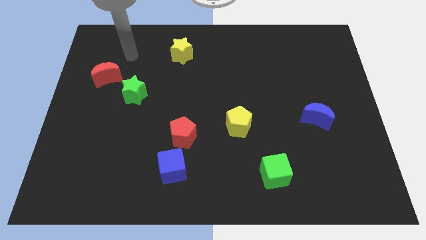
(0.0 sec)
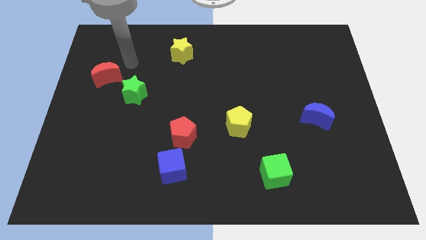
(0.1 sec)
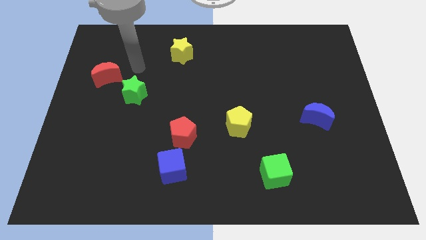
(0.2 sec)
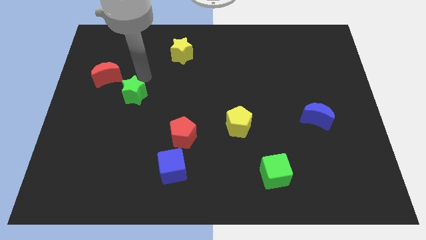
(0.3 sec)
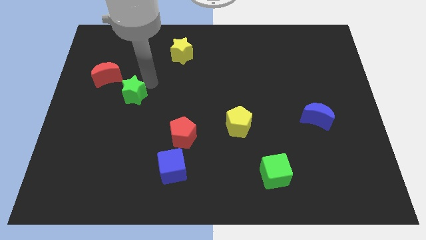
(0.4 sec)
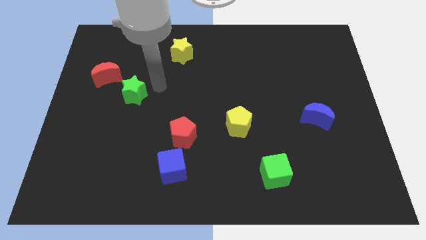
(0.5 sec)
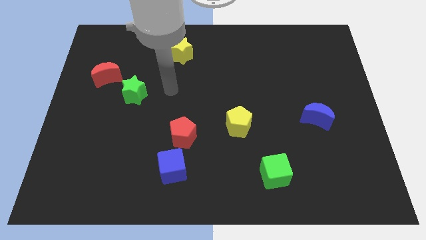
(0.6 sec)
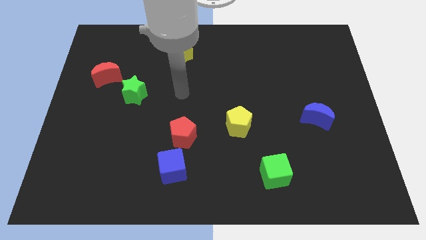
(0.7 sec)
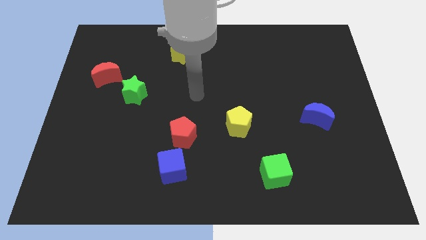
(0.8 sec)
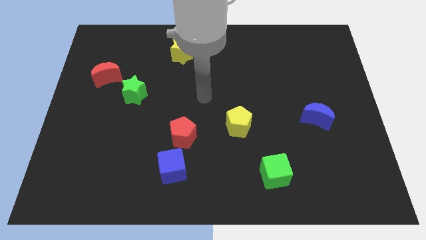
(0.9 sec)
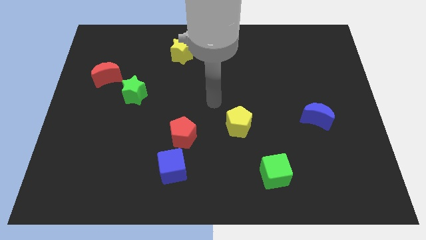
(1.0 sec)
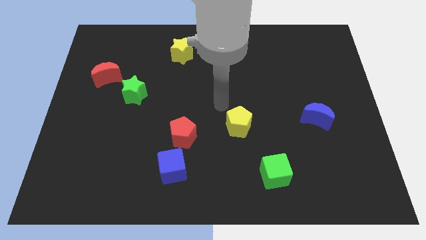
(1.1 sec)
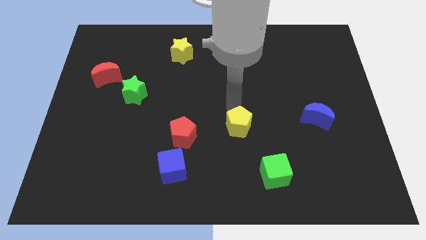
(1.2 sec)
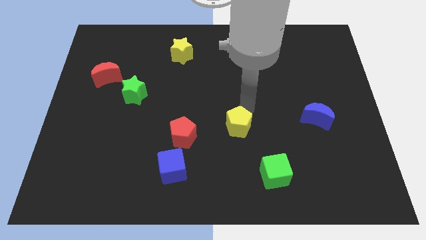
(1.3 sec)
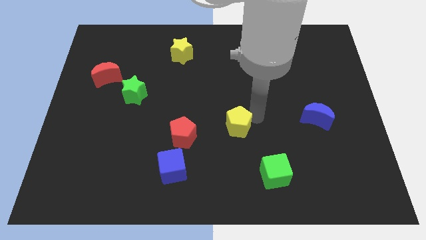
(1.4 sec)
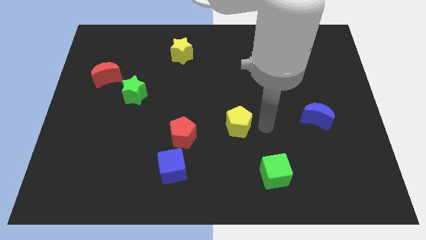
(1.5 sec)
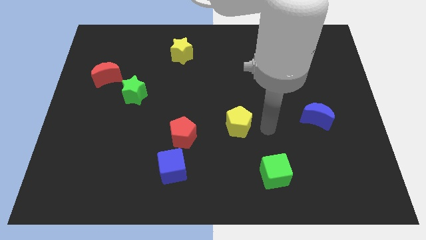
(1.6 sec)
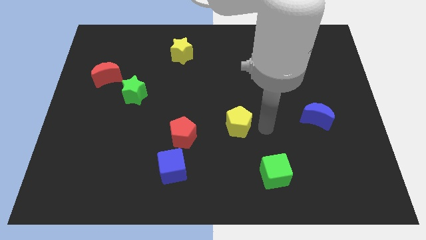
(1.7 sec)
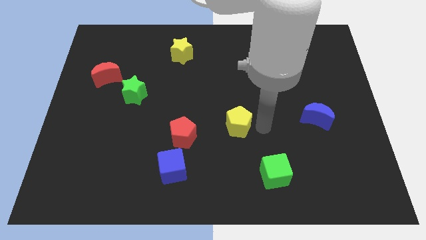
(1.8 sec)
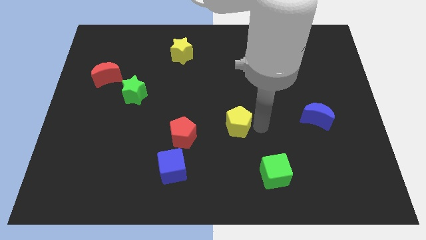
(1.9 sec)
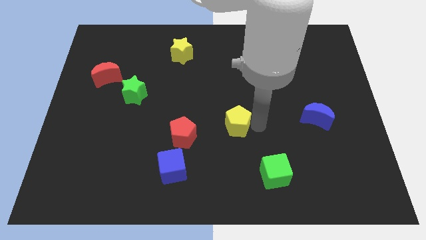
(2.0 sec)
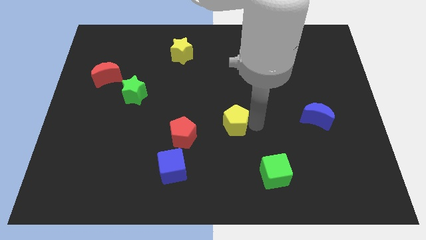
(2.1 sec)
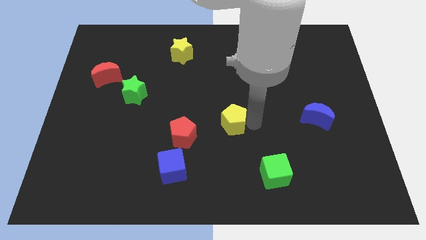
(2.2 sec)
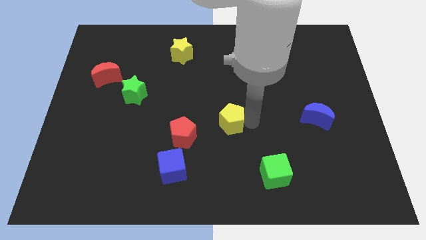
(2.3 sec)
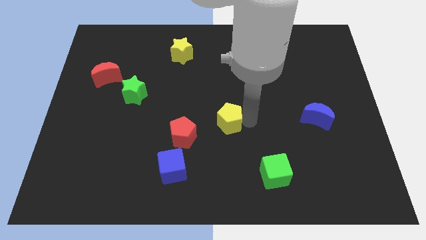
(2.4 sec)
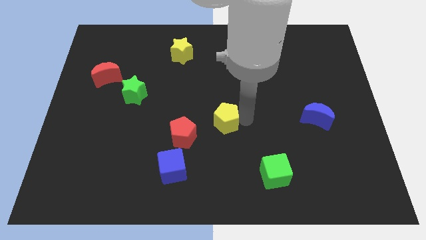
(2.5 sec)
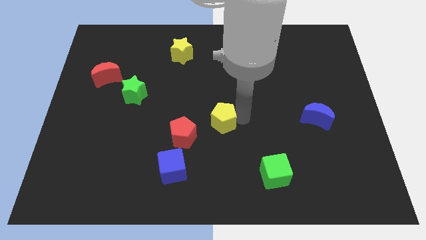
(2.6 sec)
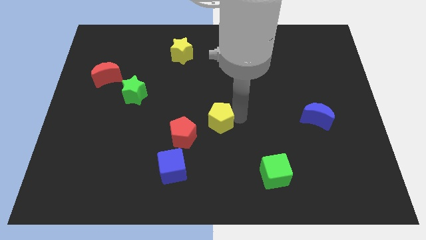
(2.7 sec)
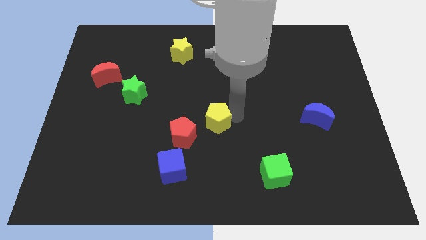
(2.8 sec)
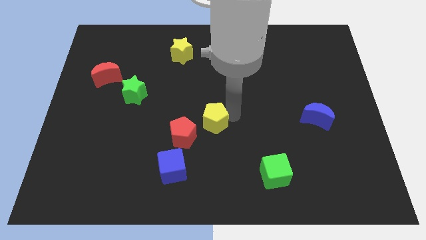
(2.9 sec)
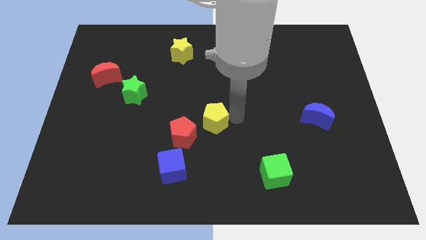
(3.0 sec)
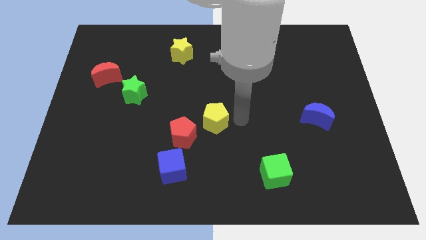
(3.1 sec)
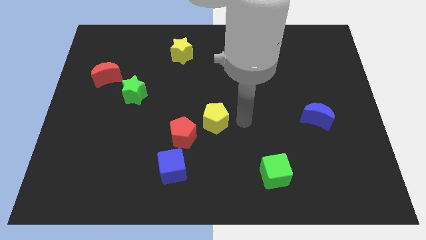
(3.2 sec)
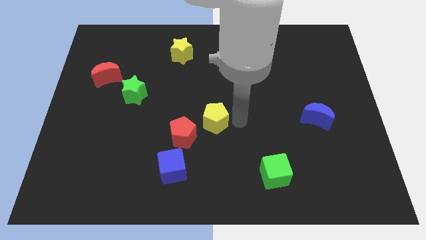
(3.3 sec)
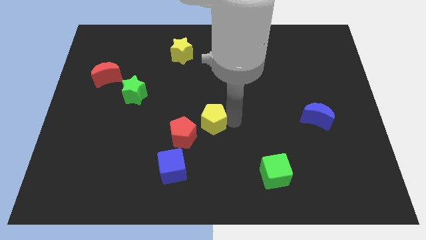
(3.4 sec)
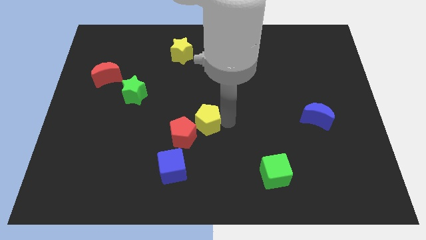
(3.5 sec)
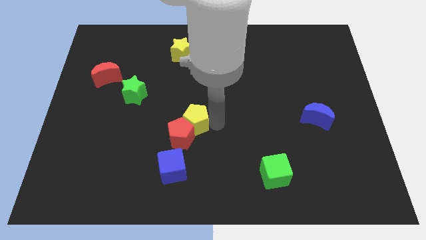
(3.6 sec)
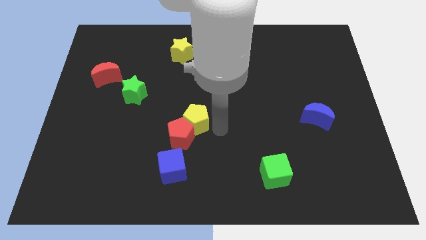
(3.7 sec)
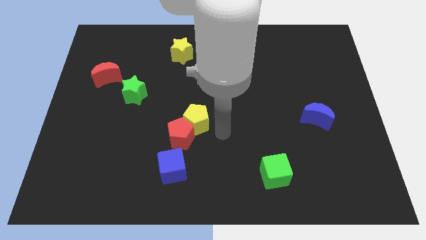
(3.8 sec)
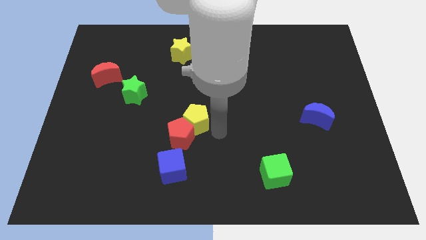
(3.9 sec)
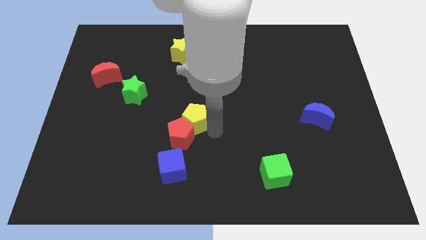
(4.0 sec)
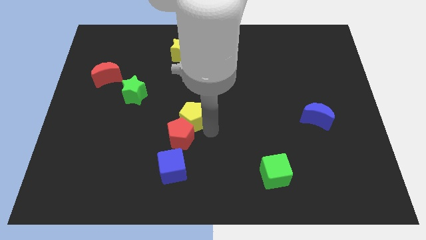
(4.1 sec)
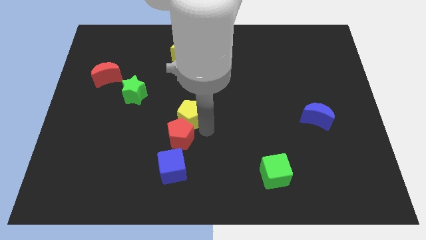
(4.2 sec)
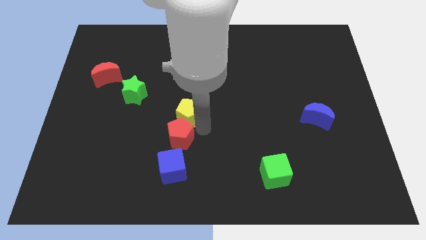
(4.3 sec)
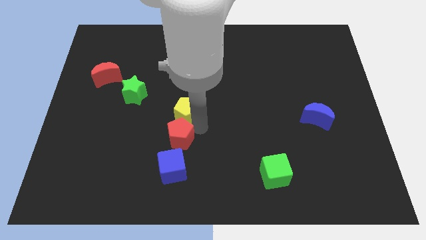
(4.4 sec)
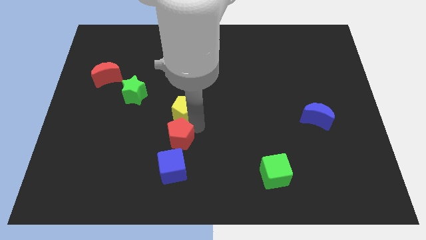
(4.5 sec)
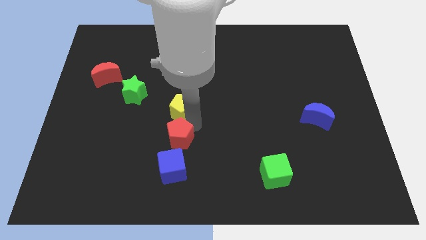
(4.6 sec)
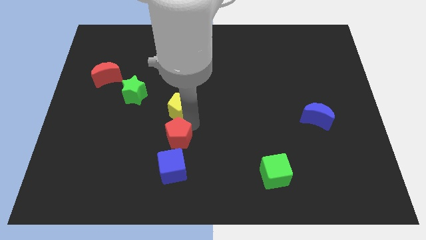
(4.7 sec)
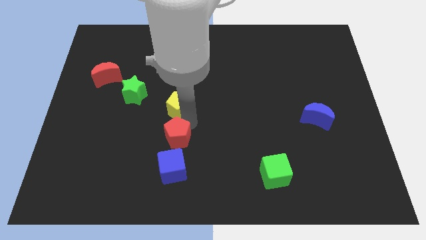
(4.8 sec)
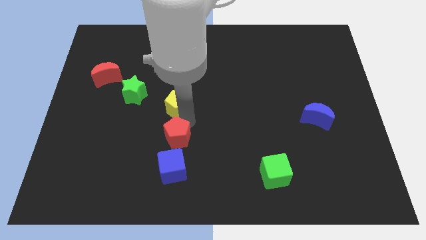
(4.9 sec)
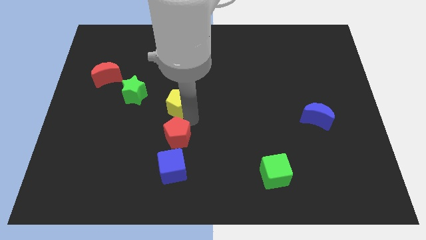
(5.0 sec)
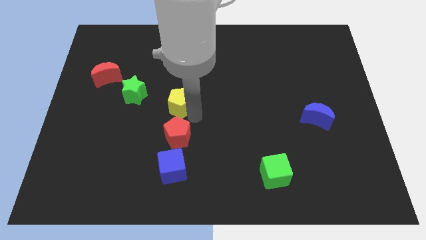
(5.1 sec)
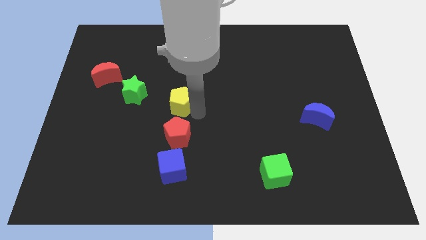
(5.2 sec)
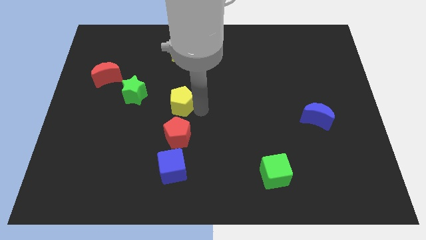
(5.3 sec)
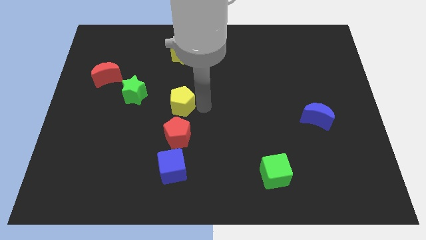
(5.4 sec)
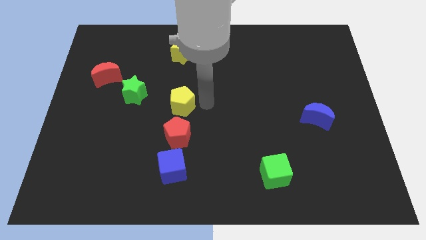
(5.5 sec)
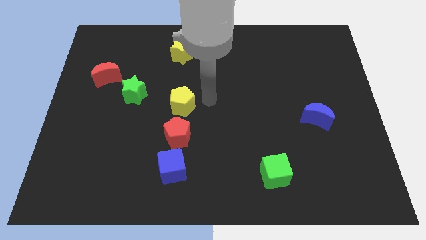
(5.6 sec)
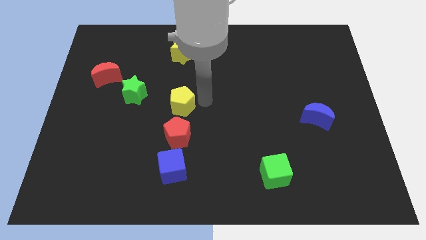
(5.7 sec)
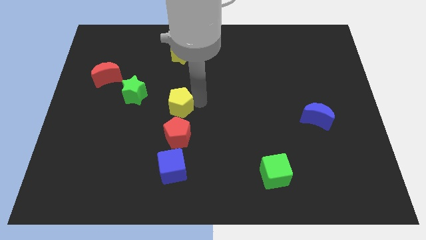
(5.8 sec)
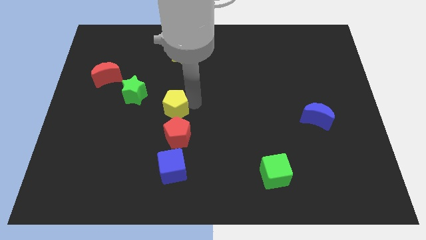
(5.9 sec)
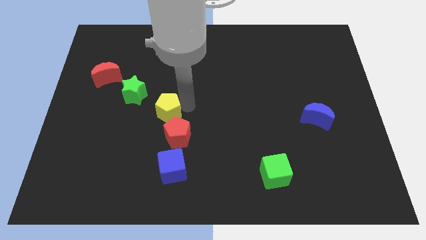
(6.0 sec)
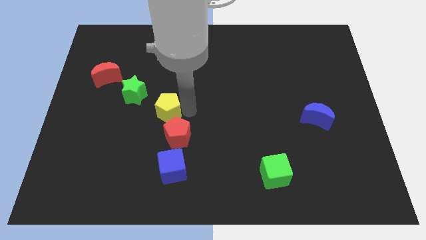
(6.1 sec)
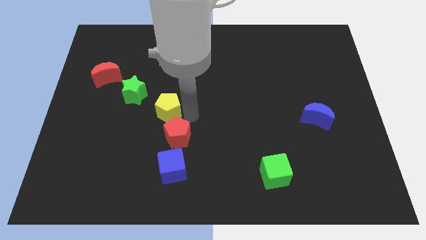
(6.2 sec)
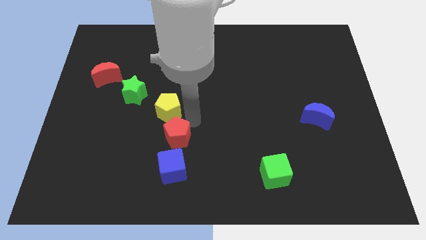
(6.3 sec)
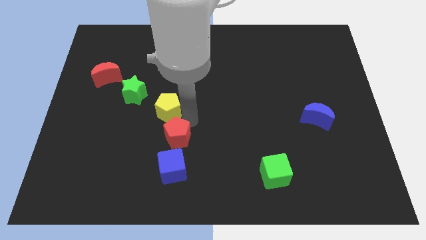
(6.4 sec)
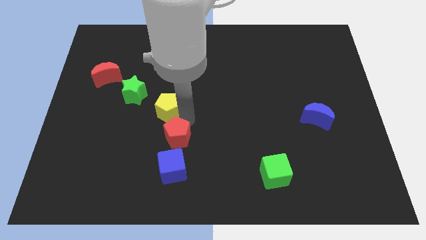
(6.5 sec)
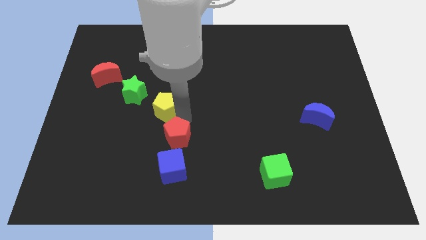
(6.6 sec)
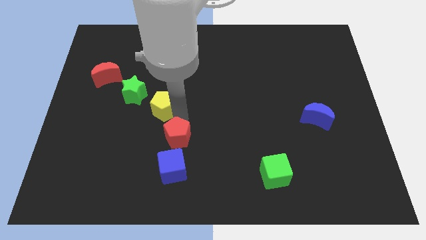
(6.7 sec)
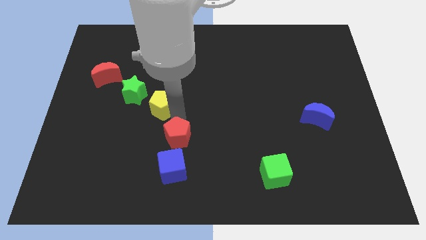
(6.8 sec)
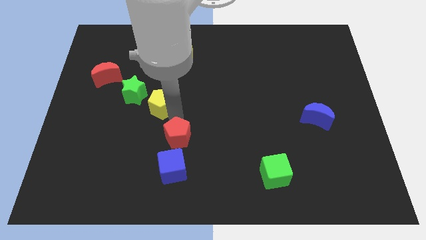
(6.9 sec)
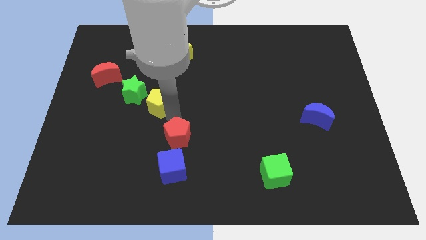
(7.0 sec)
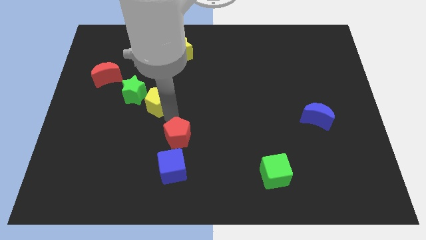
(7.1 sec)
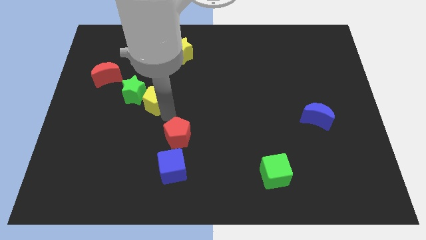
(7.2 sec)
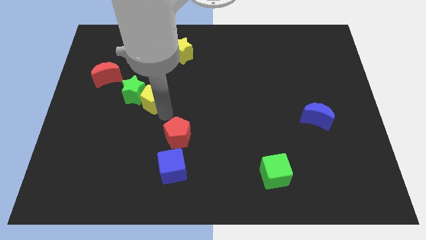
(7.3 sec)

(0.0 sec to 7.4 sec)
push the yellow pentagon towards the green star

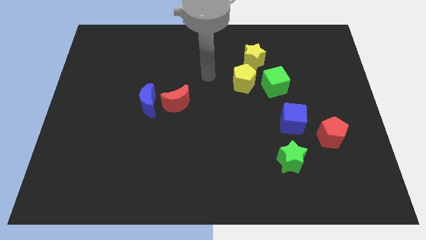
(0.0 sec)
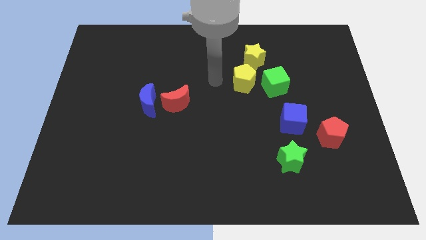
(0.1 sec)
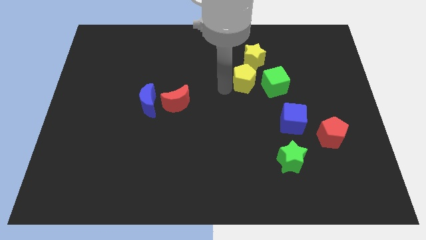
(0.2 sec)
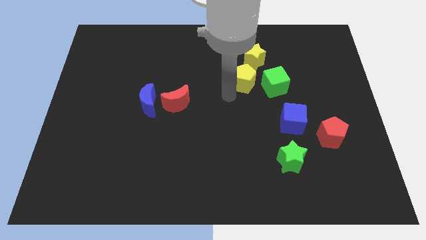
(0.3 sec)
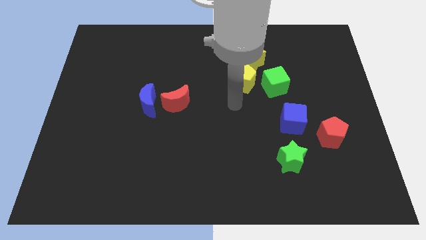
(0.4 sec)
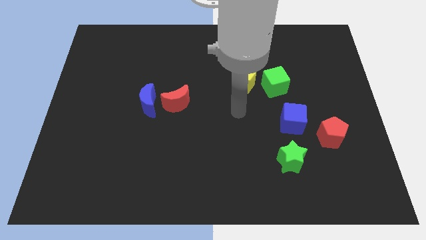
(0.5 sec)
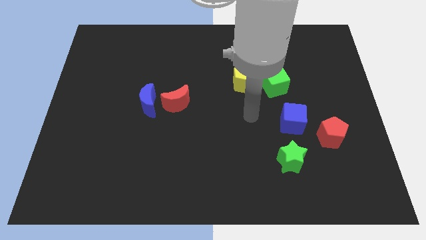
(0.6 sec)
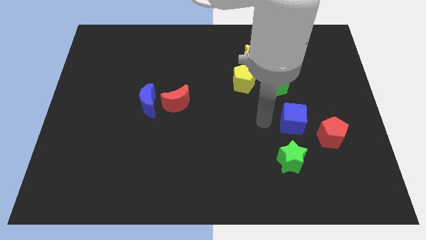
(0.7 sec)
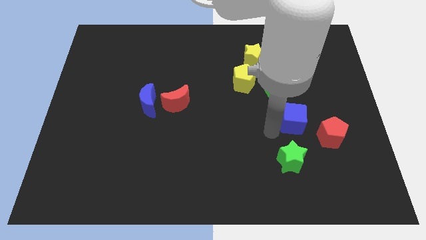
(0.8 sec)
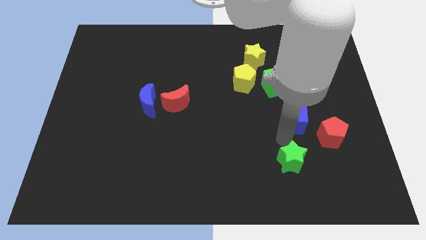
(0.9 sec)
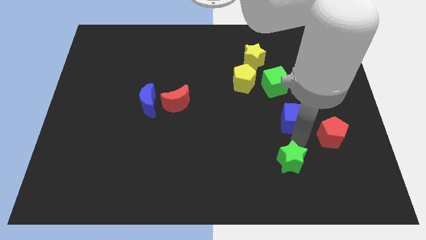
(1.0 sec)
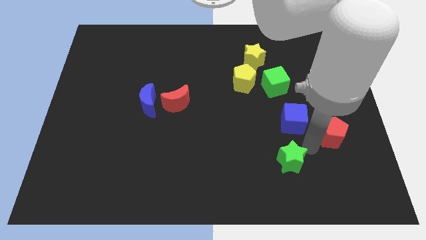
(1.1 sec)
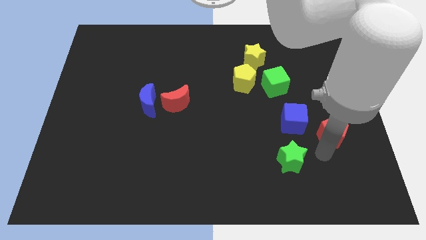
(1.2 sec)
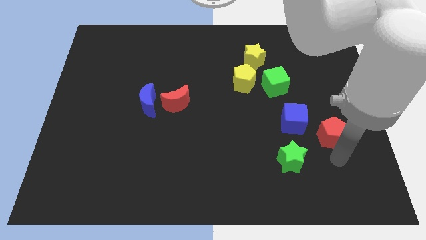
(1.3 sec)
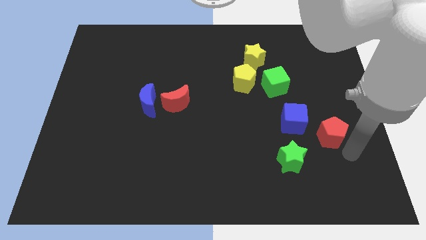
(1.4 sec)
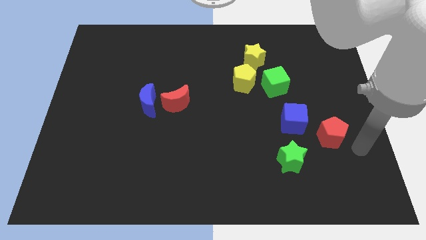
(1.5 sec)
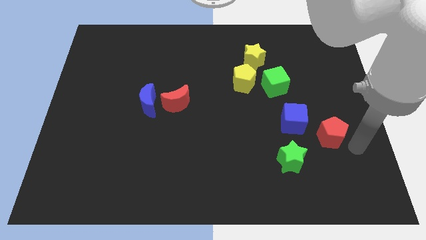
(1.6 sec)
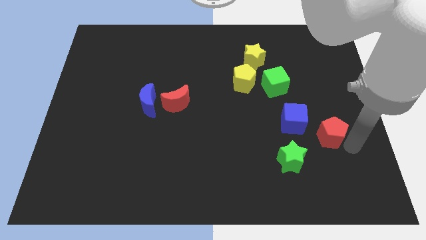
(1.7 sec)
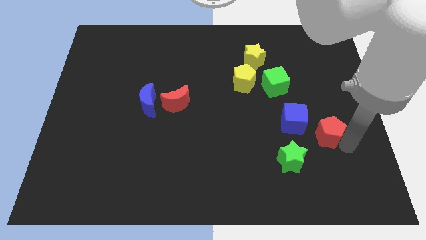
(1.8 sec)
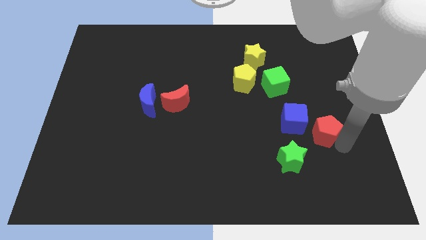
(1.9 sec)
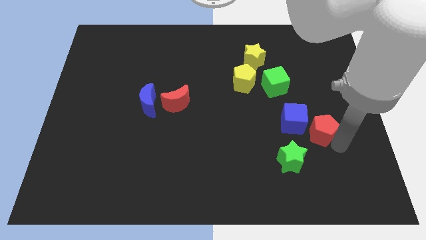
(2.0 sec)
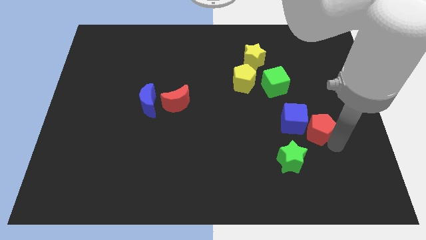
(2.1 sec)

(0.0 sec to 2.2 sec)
put the red pentagon to the blue cube
